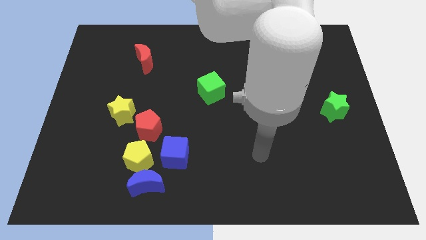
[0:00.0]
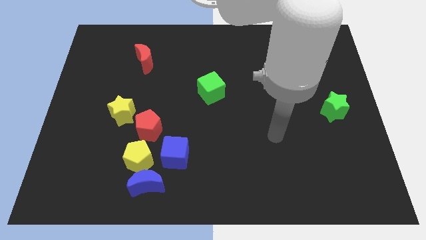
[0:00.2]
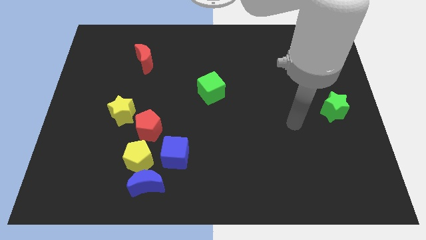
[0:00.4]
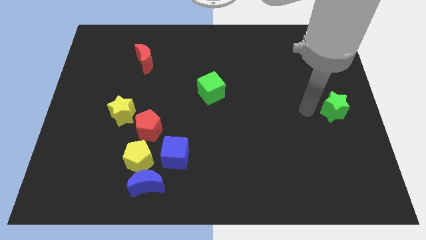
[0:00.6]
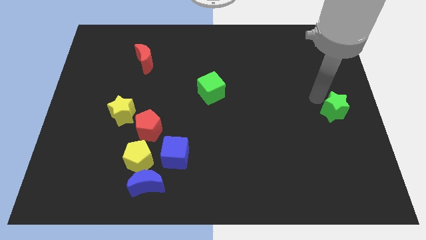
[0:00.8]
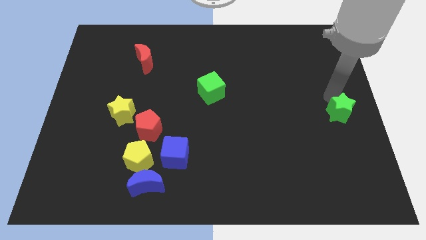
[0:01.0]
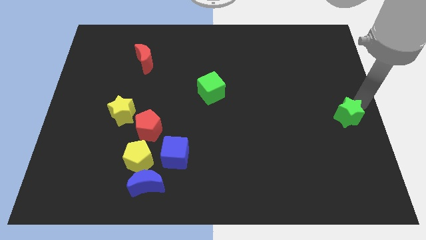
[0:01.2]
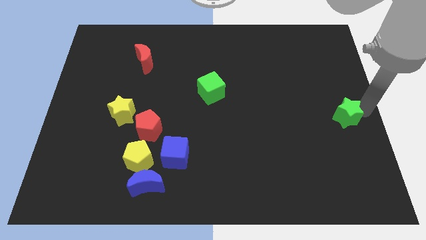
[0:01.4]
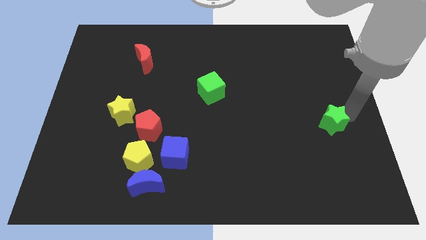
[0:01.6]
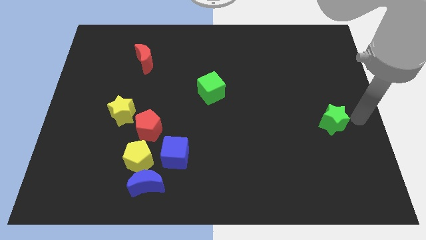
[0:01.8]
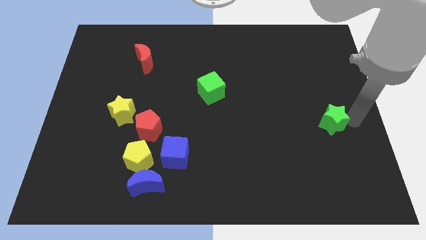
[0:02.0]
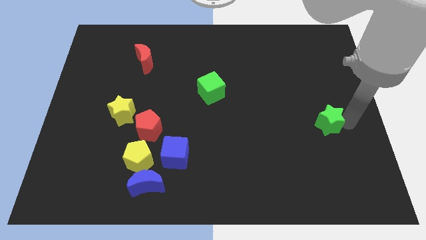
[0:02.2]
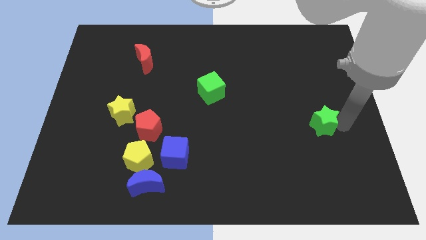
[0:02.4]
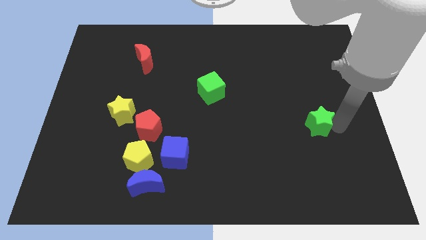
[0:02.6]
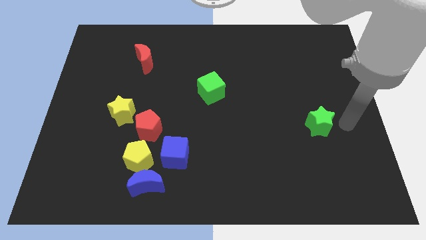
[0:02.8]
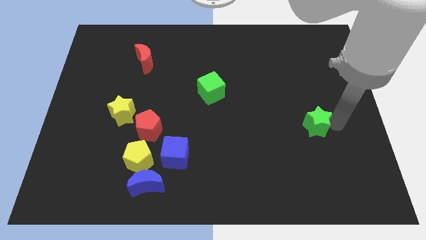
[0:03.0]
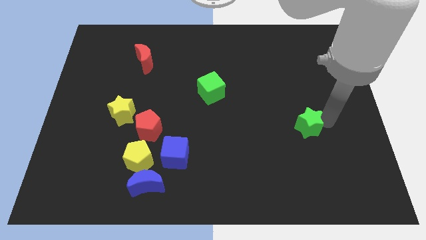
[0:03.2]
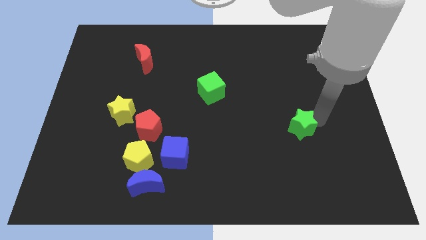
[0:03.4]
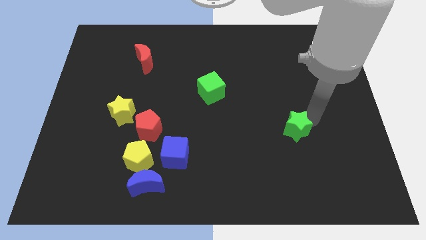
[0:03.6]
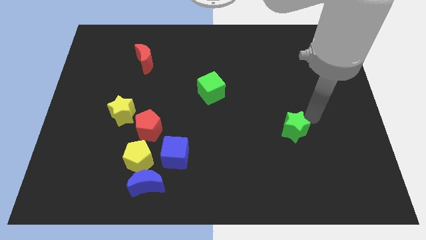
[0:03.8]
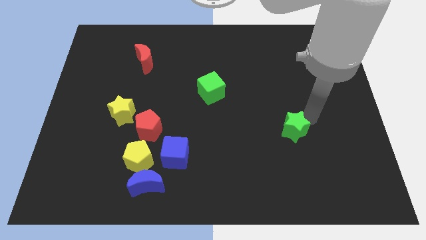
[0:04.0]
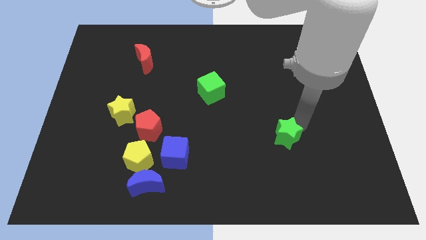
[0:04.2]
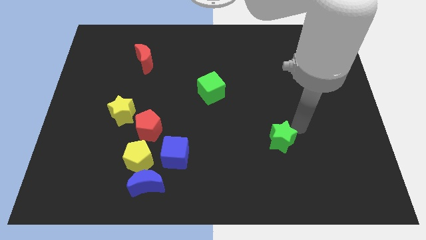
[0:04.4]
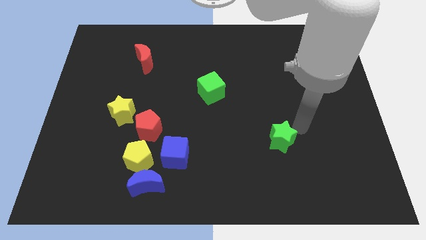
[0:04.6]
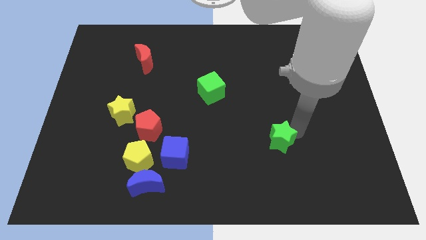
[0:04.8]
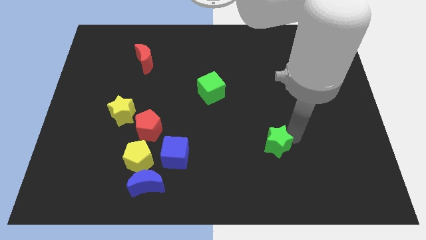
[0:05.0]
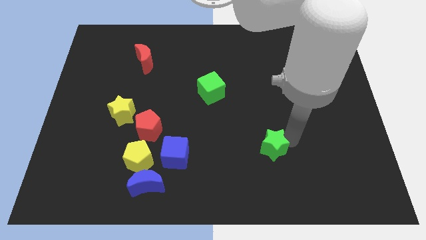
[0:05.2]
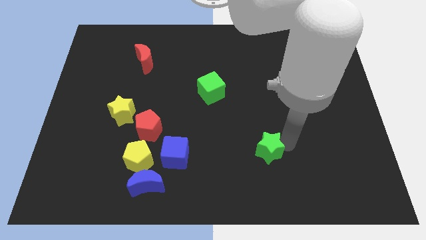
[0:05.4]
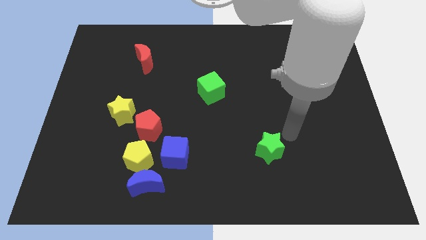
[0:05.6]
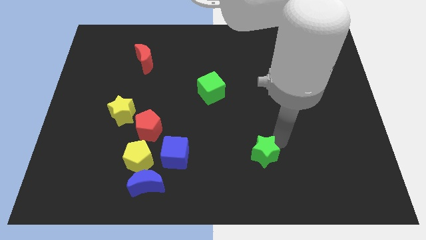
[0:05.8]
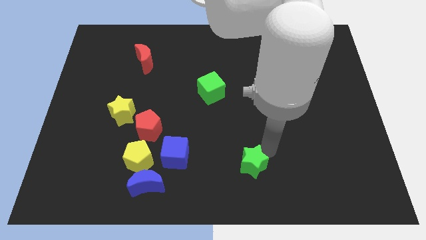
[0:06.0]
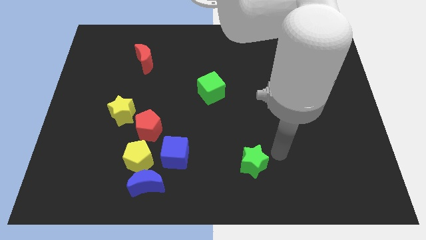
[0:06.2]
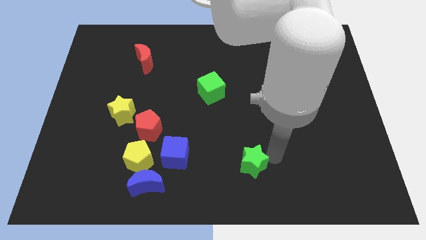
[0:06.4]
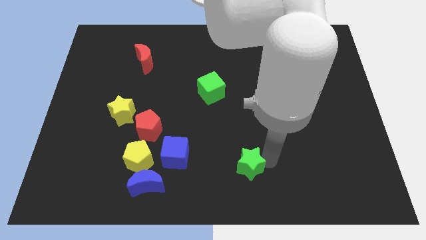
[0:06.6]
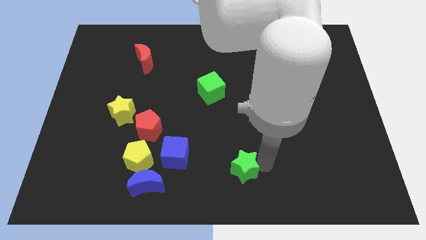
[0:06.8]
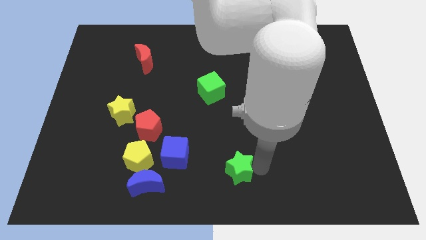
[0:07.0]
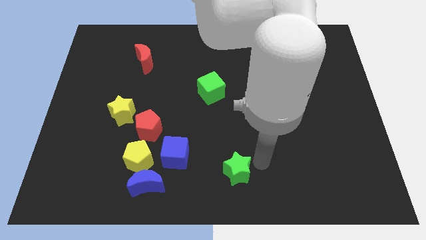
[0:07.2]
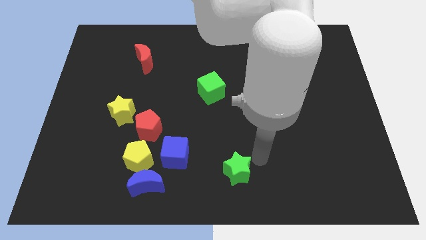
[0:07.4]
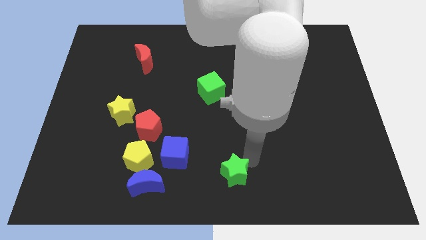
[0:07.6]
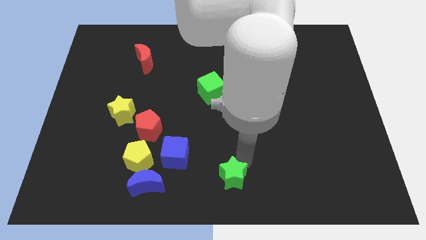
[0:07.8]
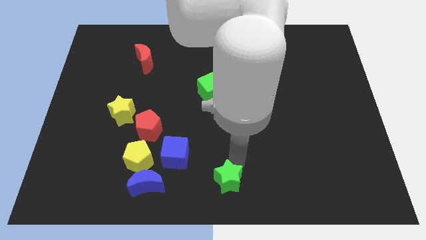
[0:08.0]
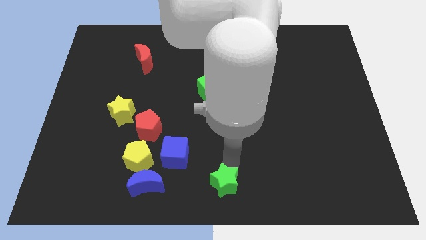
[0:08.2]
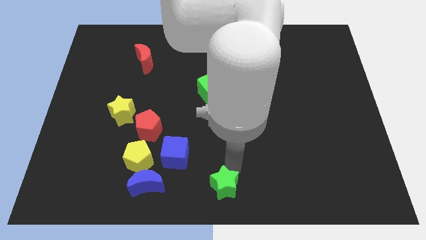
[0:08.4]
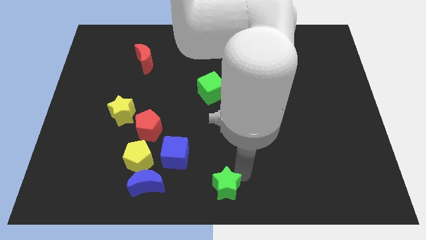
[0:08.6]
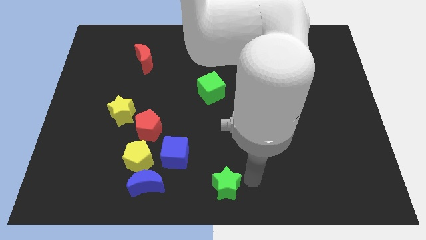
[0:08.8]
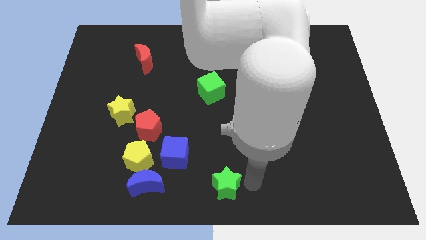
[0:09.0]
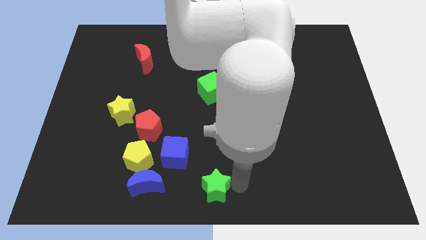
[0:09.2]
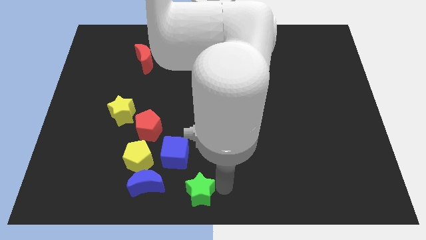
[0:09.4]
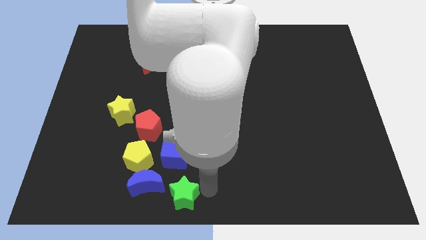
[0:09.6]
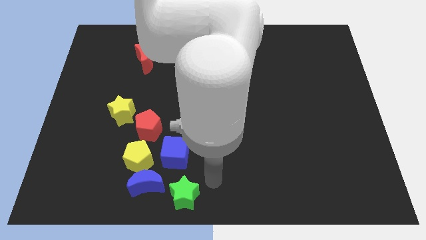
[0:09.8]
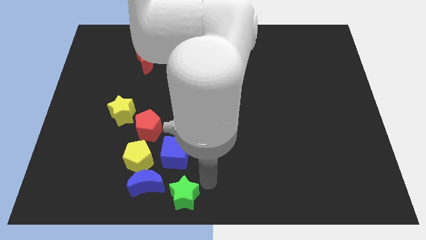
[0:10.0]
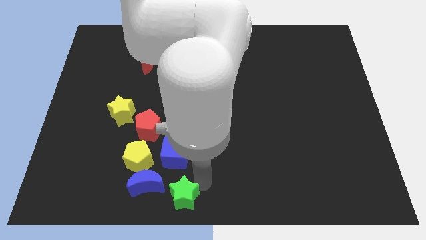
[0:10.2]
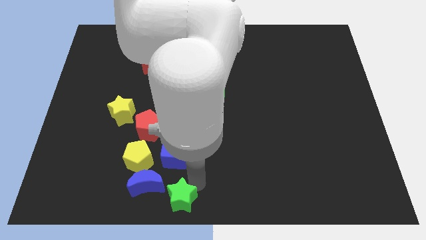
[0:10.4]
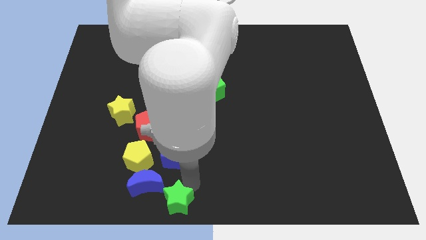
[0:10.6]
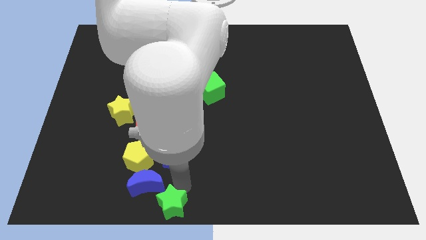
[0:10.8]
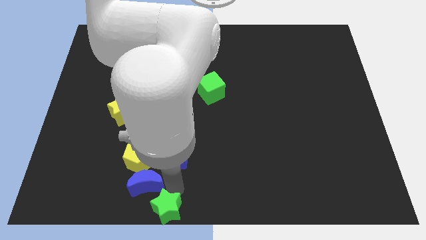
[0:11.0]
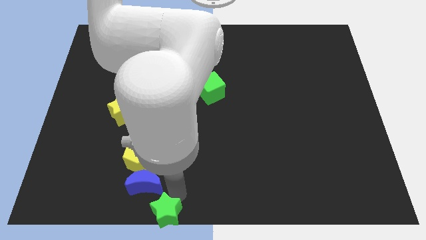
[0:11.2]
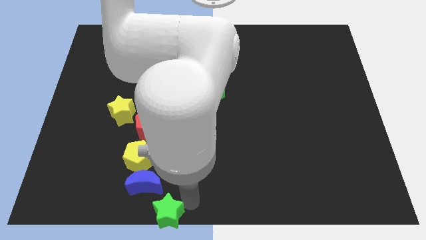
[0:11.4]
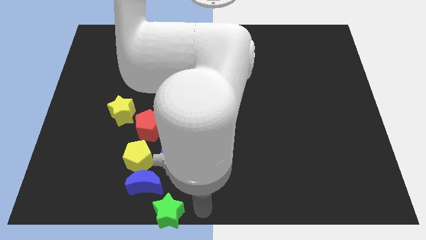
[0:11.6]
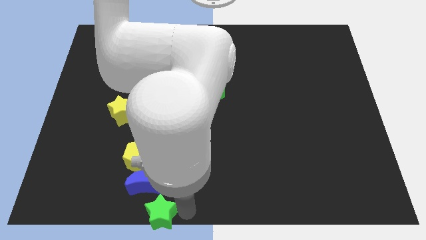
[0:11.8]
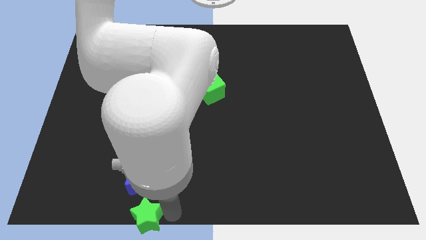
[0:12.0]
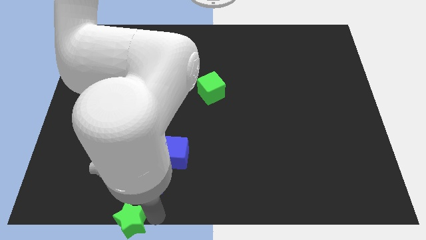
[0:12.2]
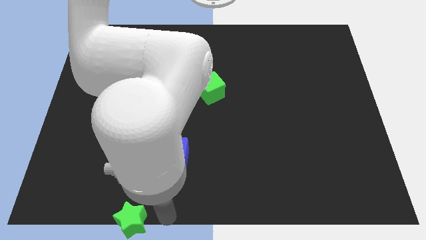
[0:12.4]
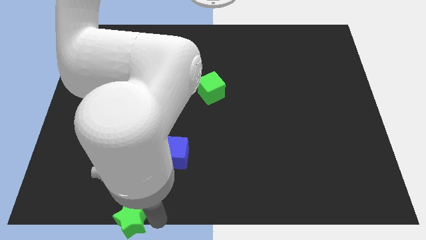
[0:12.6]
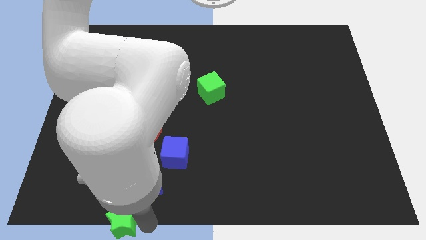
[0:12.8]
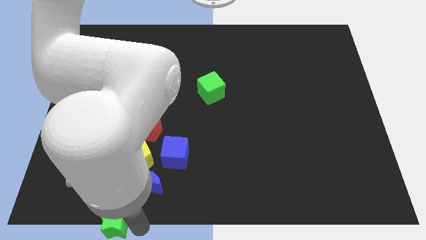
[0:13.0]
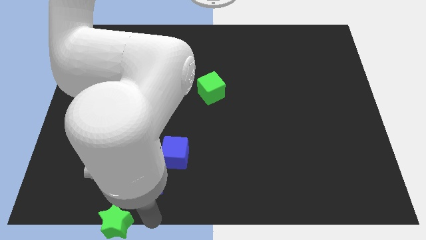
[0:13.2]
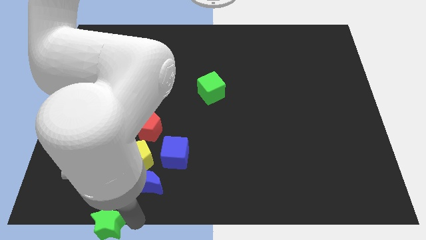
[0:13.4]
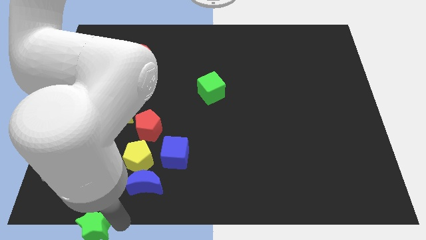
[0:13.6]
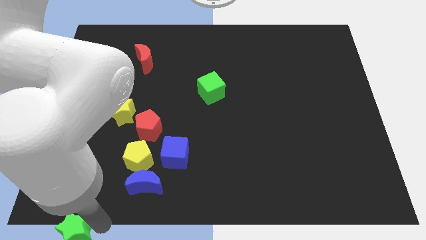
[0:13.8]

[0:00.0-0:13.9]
put the green star to the lower left corner
